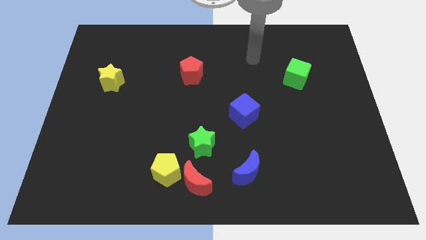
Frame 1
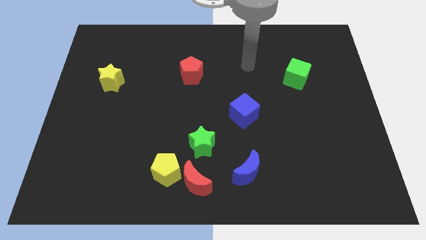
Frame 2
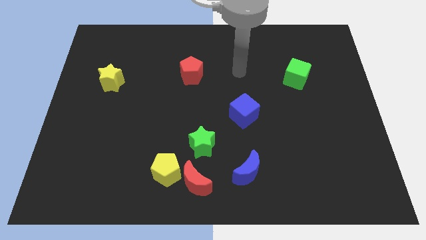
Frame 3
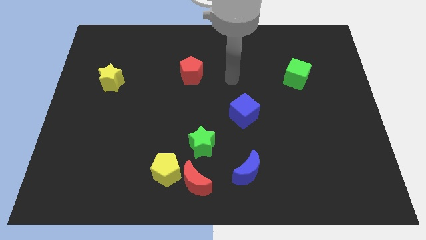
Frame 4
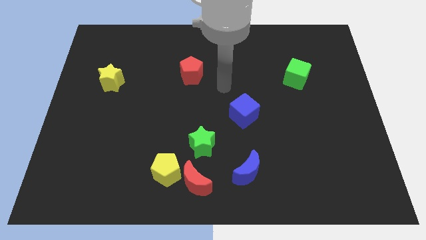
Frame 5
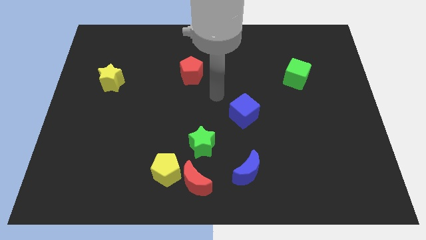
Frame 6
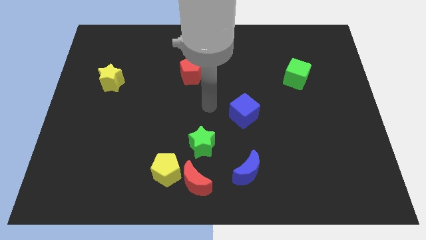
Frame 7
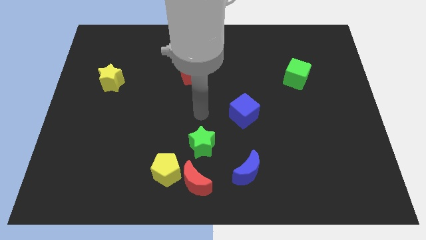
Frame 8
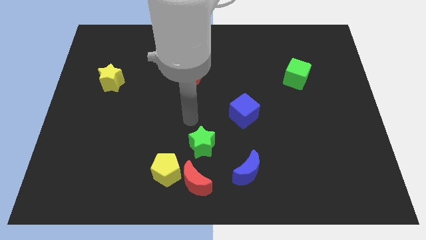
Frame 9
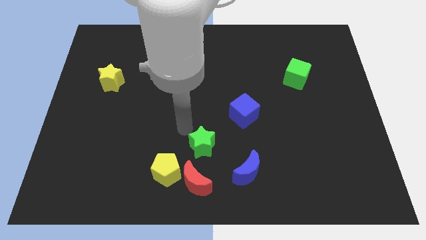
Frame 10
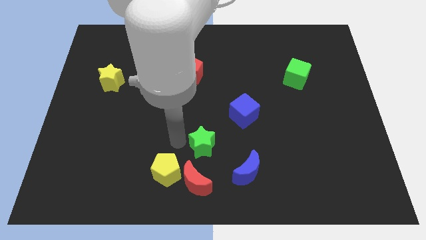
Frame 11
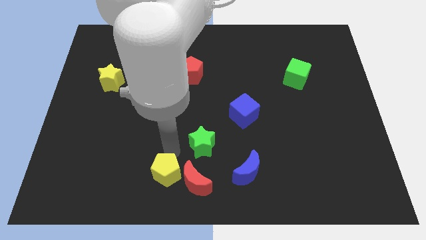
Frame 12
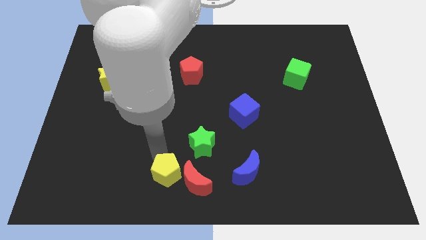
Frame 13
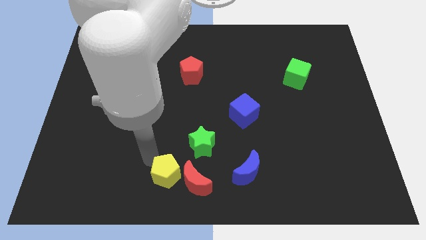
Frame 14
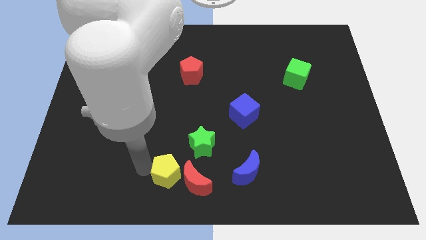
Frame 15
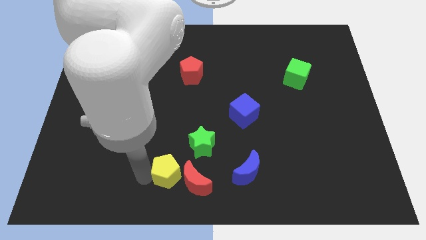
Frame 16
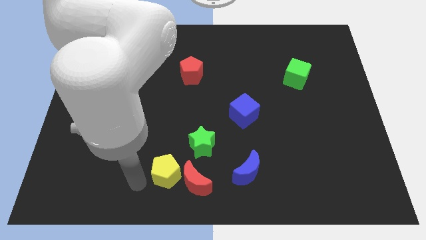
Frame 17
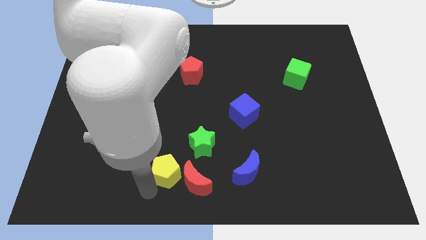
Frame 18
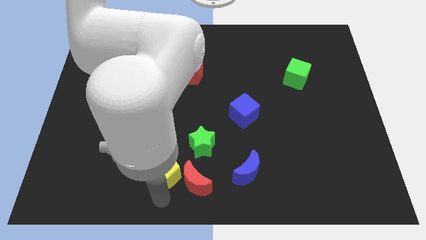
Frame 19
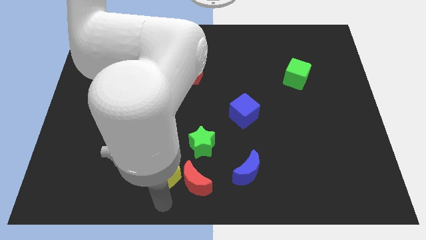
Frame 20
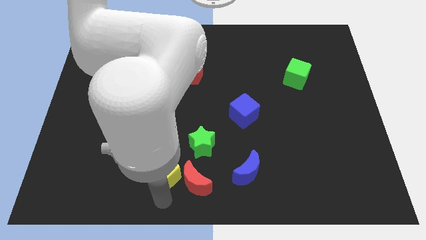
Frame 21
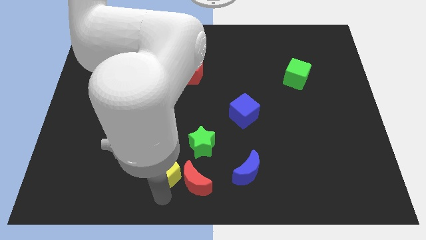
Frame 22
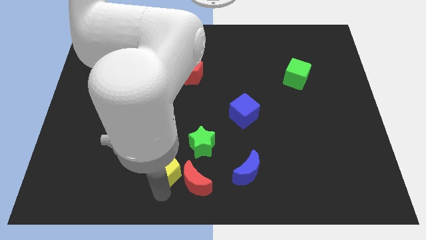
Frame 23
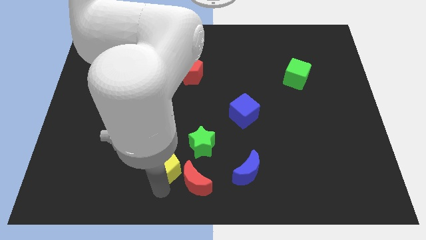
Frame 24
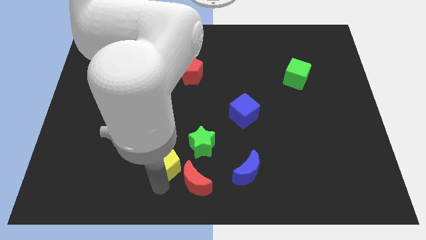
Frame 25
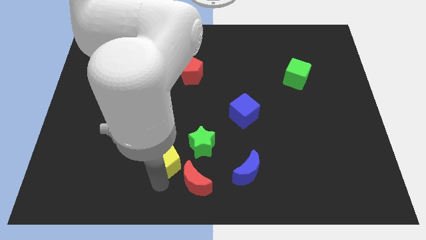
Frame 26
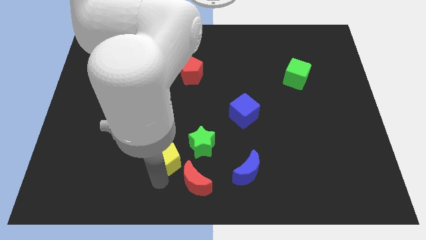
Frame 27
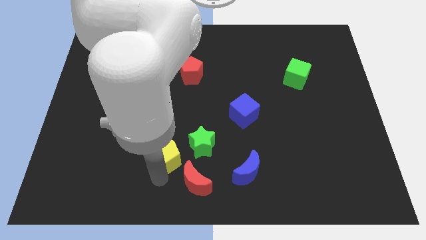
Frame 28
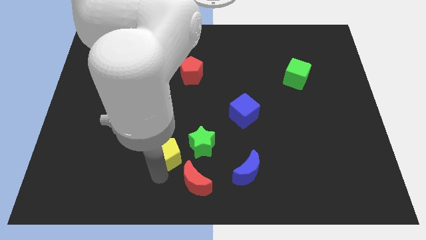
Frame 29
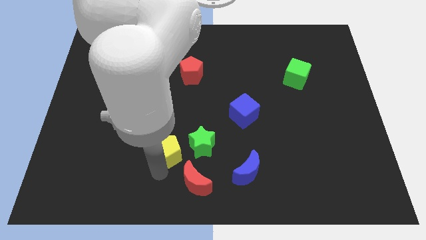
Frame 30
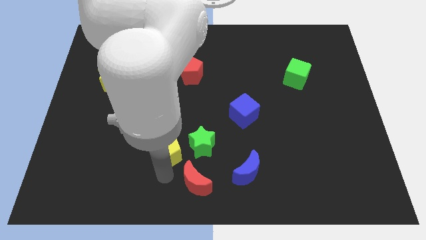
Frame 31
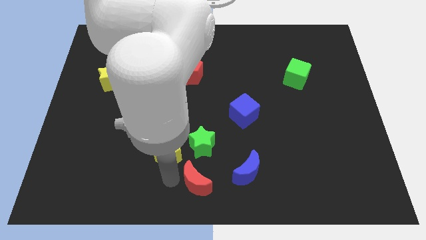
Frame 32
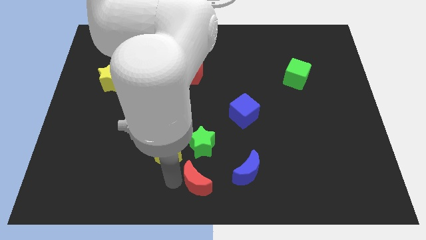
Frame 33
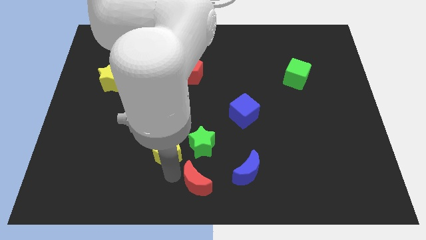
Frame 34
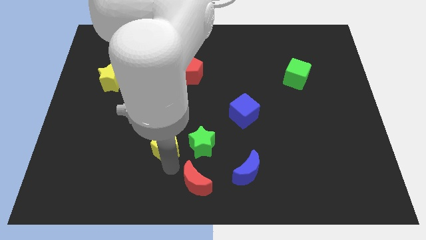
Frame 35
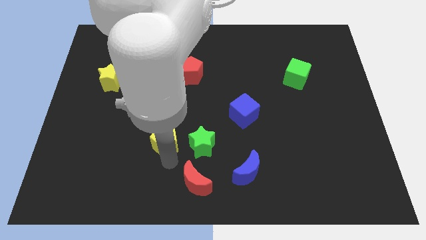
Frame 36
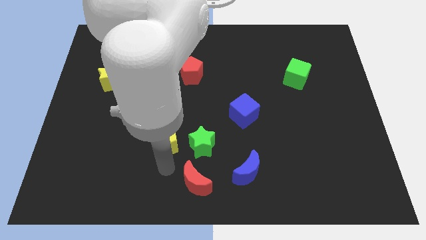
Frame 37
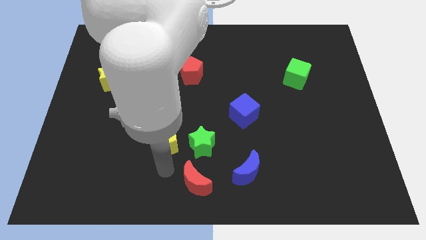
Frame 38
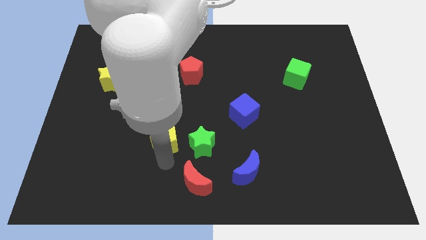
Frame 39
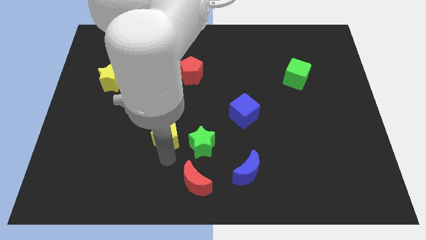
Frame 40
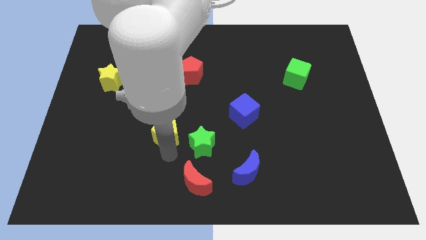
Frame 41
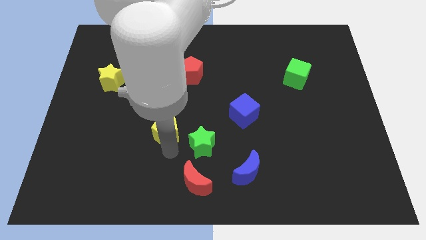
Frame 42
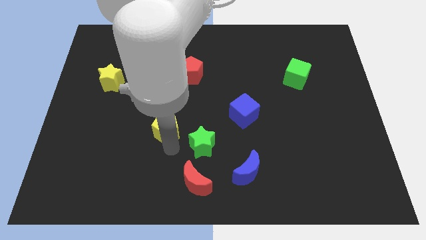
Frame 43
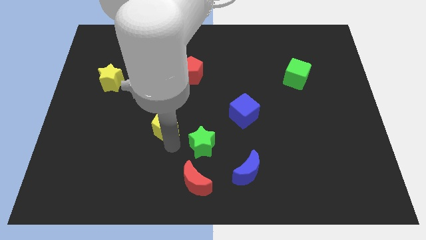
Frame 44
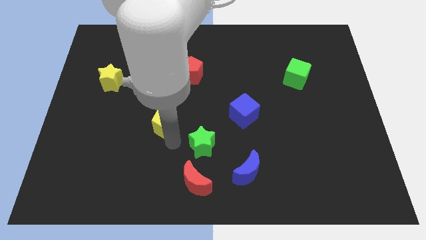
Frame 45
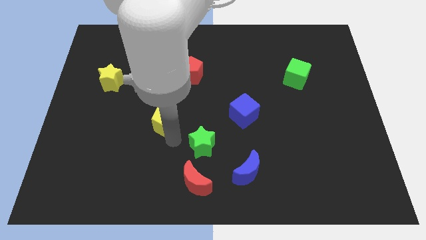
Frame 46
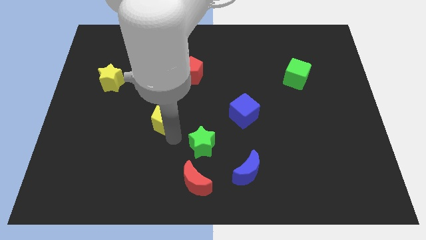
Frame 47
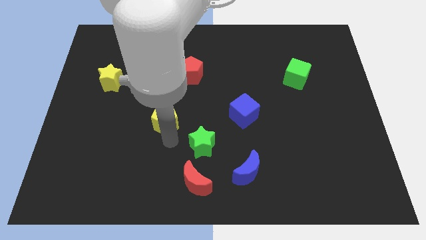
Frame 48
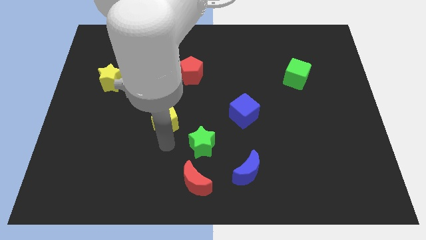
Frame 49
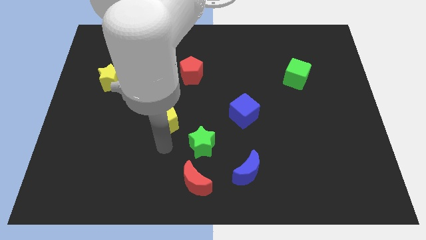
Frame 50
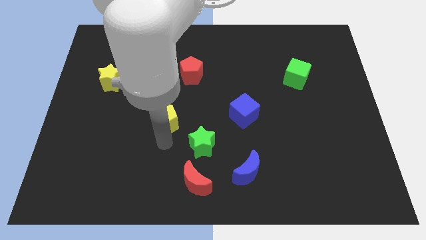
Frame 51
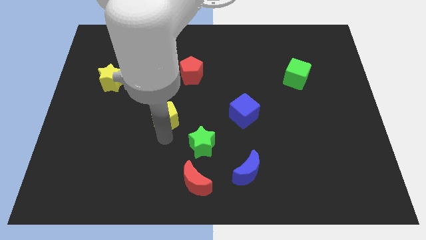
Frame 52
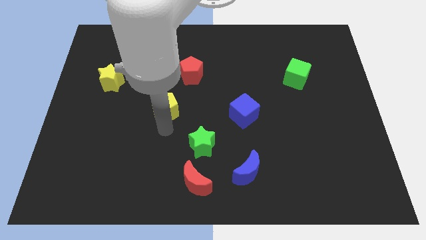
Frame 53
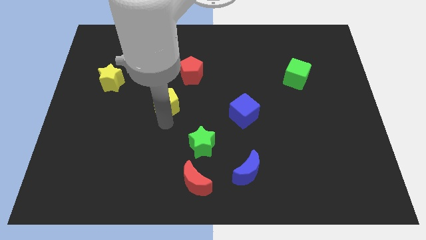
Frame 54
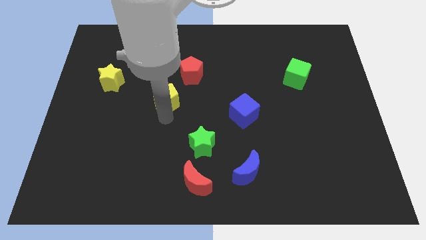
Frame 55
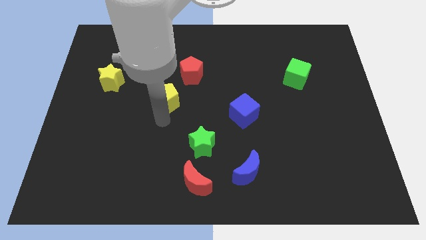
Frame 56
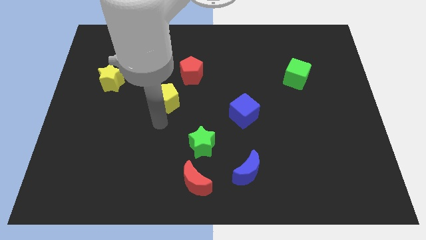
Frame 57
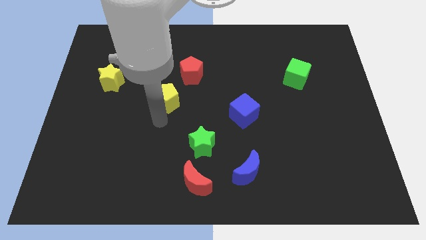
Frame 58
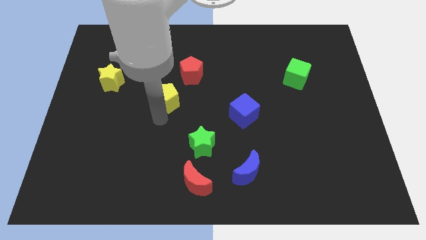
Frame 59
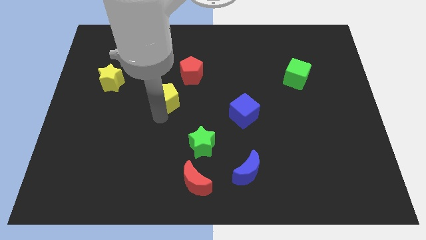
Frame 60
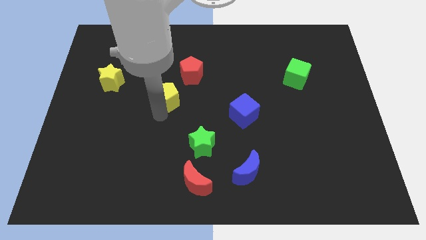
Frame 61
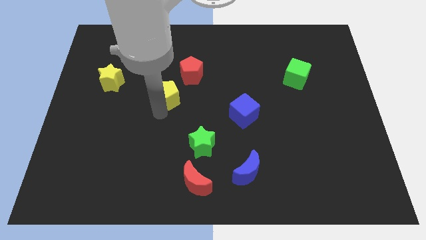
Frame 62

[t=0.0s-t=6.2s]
move the yellow pentagon upwards

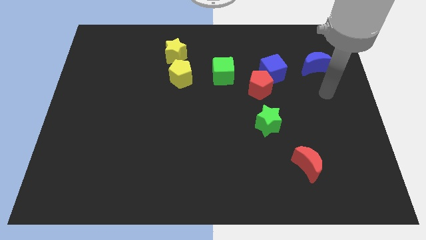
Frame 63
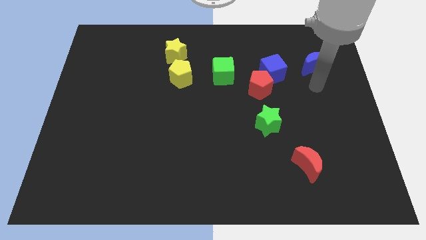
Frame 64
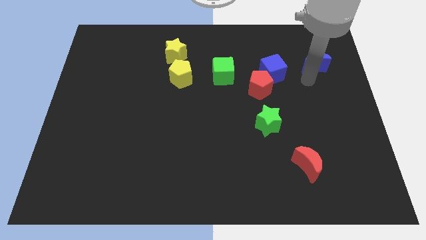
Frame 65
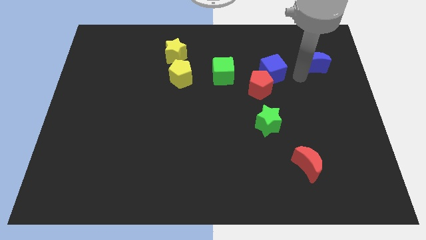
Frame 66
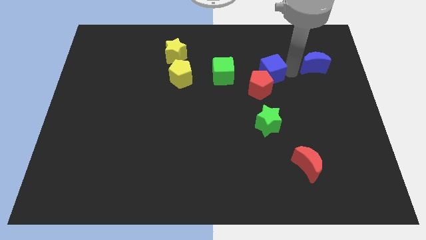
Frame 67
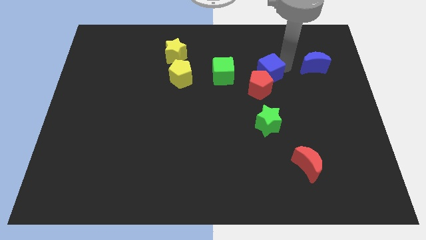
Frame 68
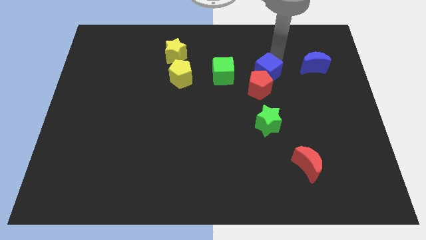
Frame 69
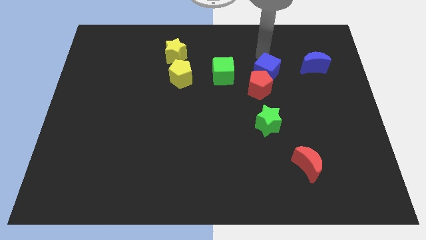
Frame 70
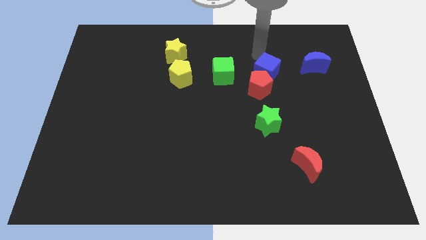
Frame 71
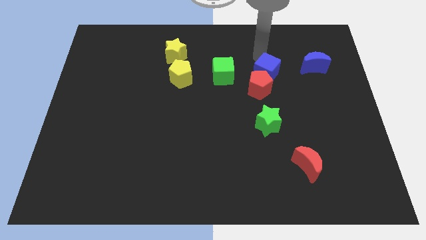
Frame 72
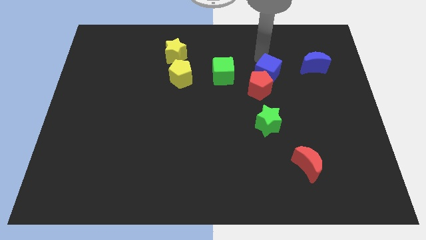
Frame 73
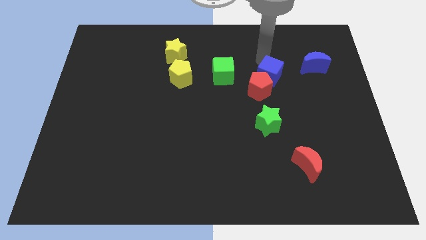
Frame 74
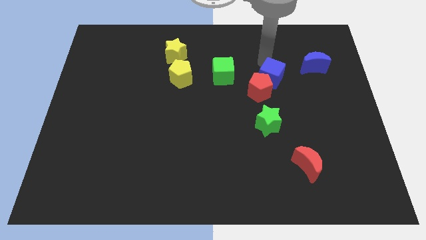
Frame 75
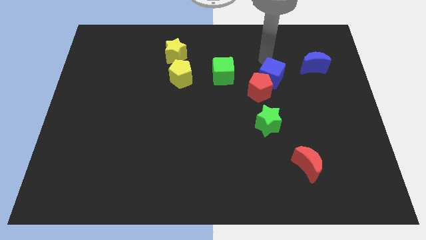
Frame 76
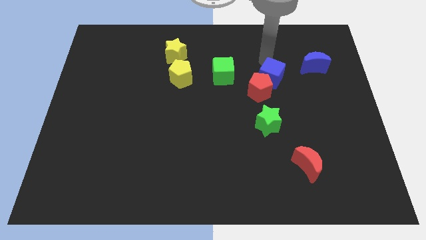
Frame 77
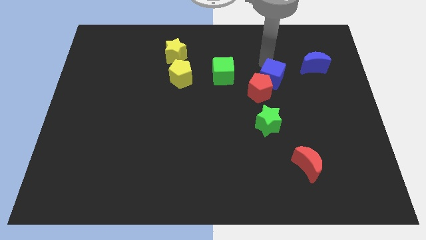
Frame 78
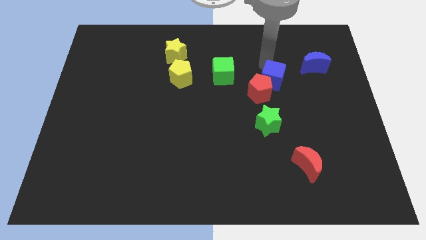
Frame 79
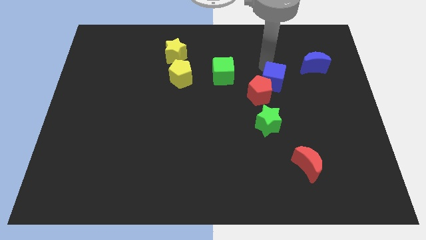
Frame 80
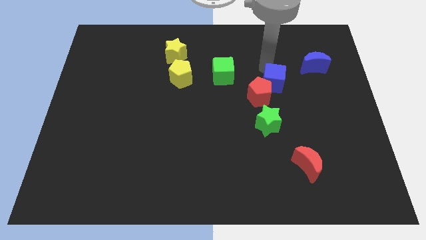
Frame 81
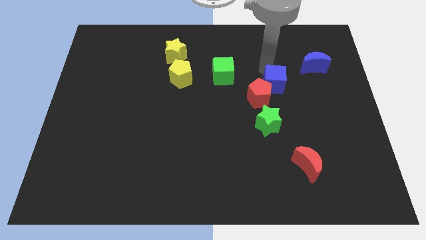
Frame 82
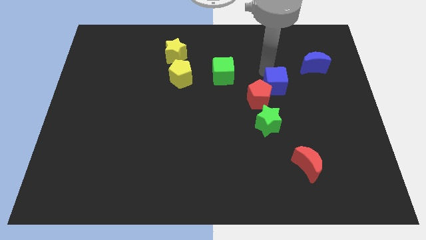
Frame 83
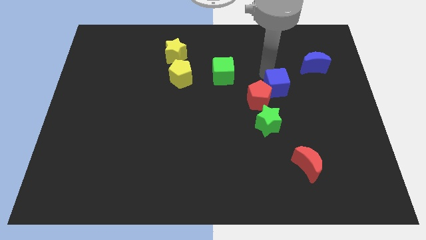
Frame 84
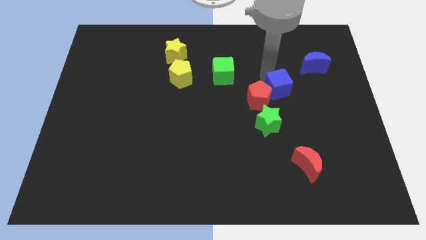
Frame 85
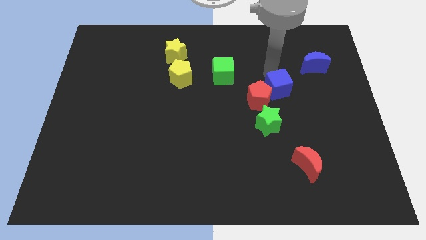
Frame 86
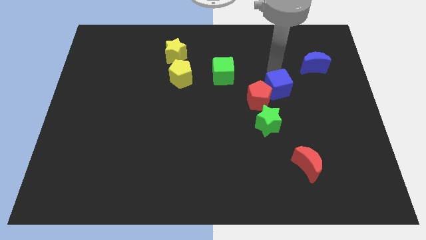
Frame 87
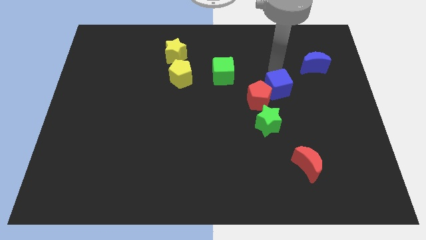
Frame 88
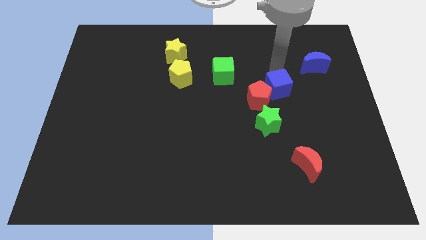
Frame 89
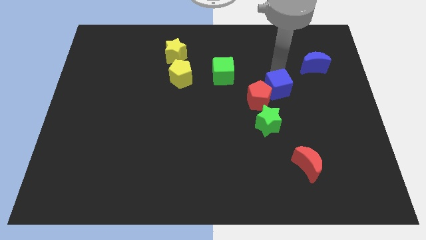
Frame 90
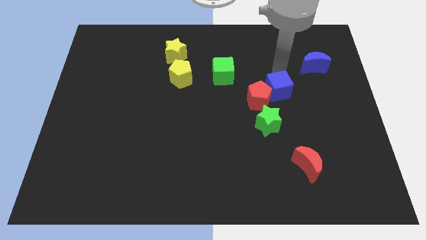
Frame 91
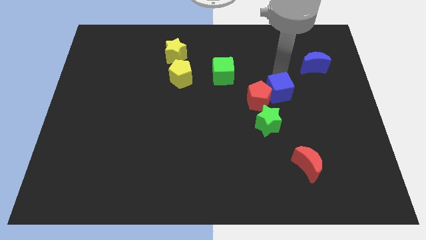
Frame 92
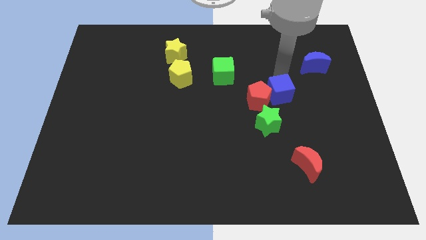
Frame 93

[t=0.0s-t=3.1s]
push the blue cube a little bit downwards
